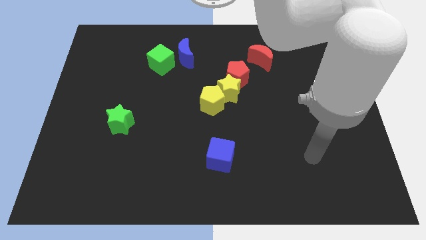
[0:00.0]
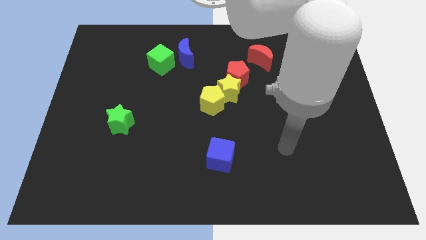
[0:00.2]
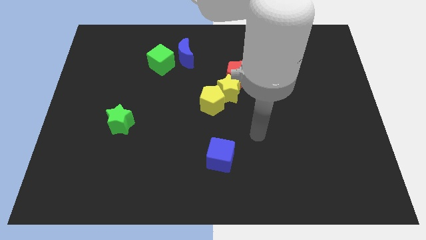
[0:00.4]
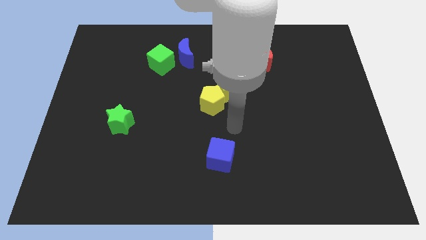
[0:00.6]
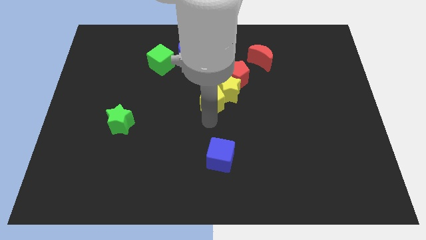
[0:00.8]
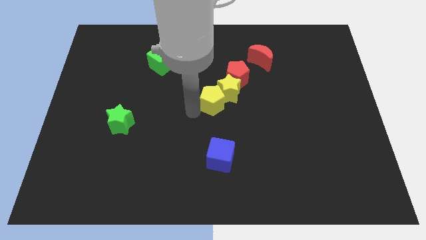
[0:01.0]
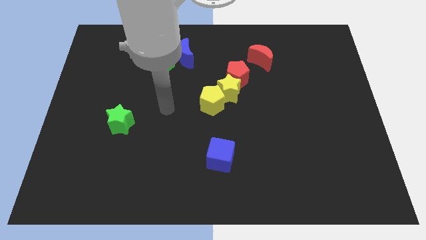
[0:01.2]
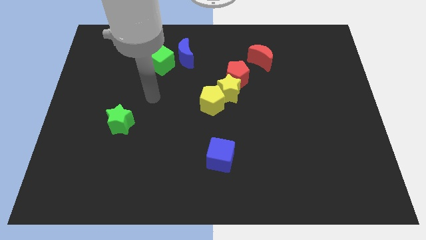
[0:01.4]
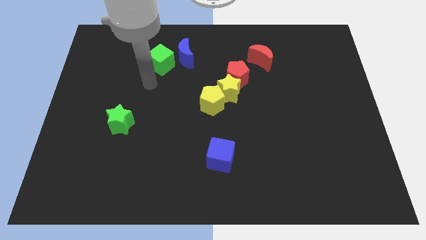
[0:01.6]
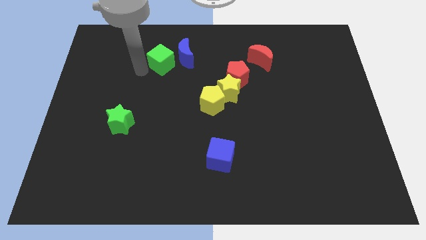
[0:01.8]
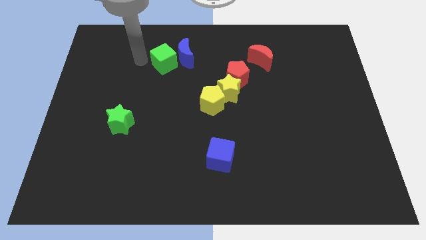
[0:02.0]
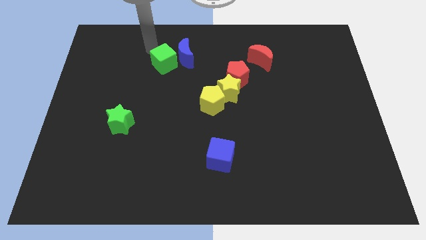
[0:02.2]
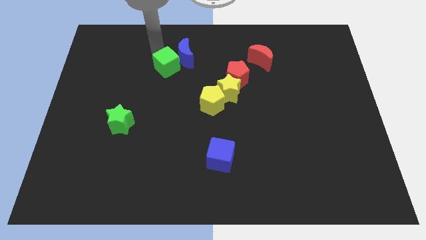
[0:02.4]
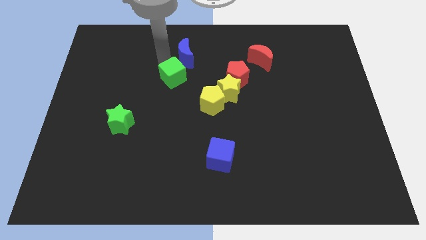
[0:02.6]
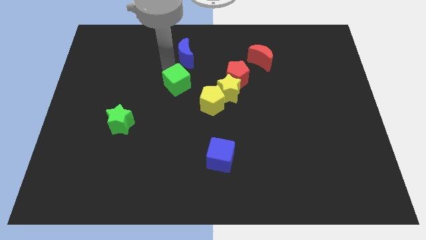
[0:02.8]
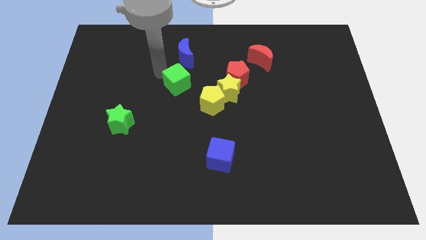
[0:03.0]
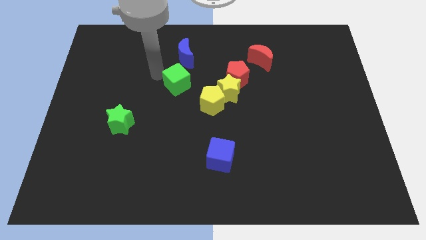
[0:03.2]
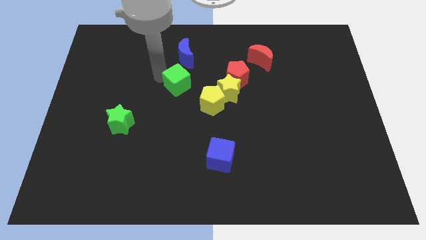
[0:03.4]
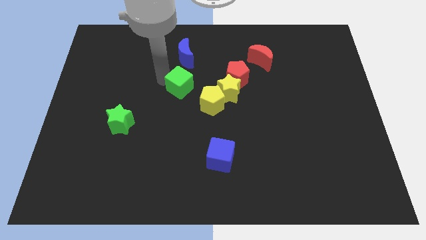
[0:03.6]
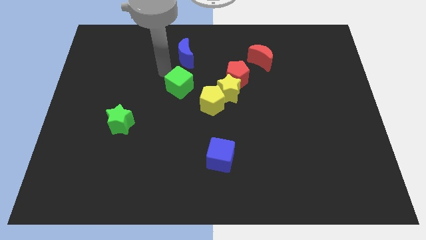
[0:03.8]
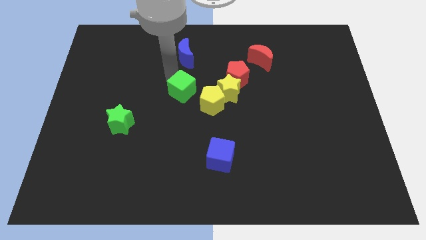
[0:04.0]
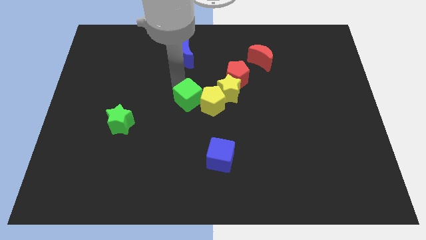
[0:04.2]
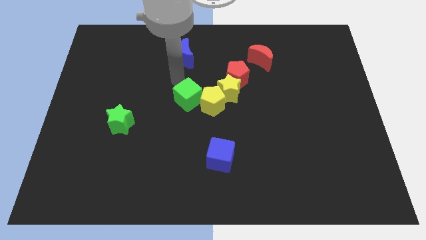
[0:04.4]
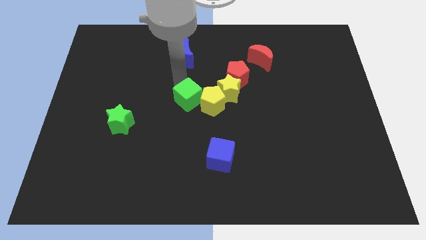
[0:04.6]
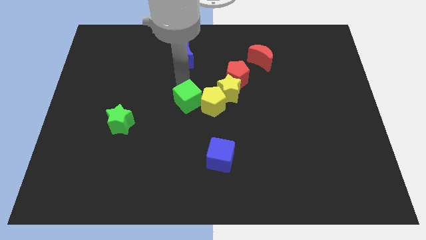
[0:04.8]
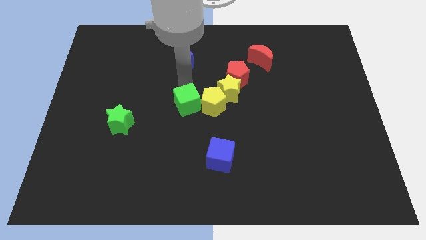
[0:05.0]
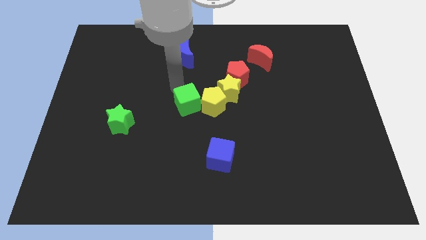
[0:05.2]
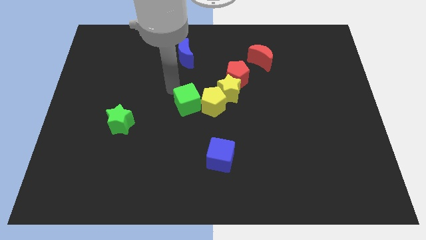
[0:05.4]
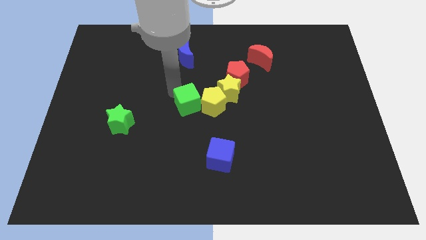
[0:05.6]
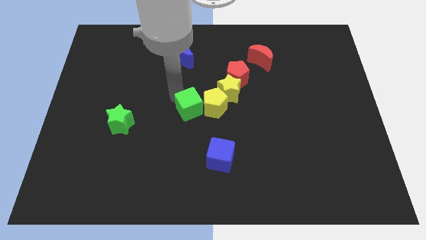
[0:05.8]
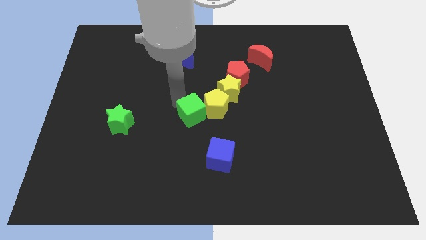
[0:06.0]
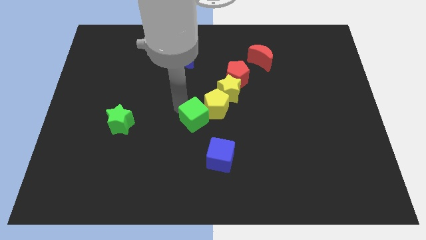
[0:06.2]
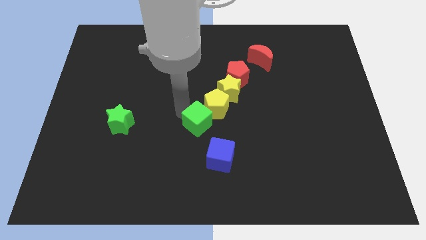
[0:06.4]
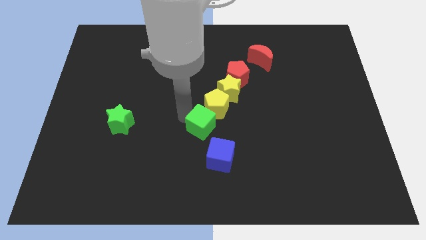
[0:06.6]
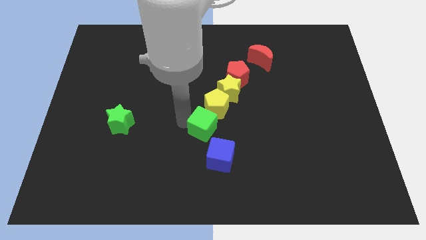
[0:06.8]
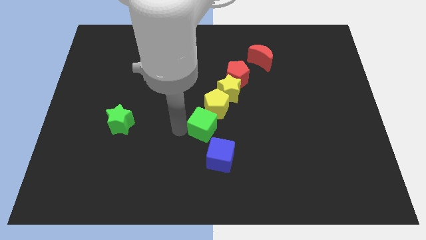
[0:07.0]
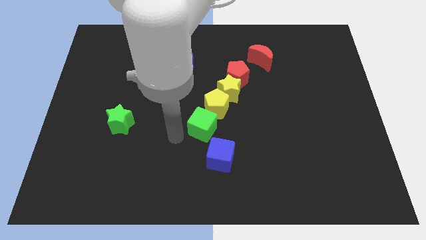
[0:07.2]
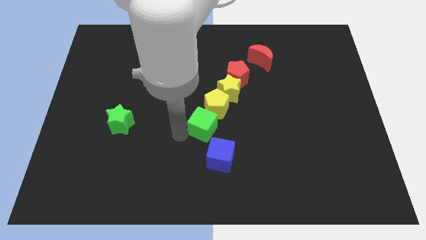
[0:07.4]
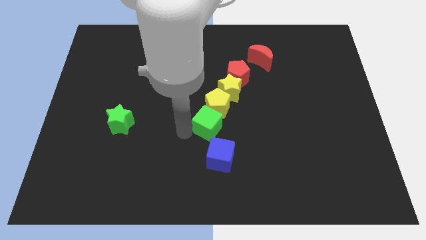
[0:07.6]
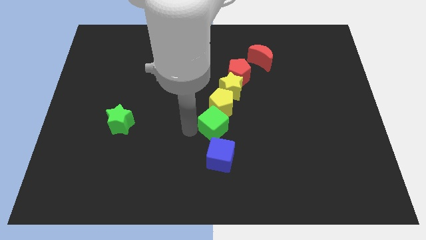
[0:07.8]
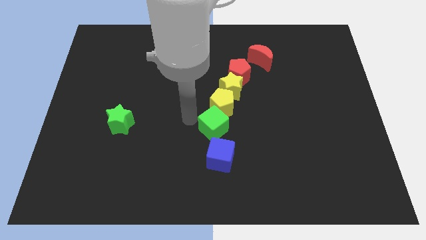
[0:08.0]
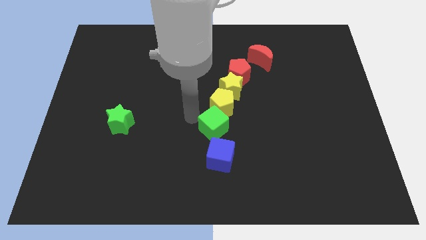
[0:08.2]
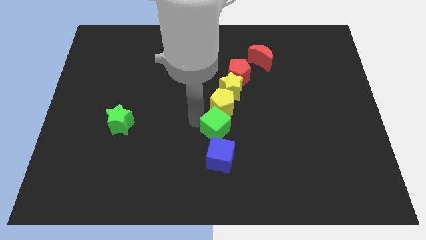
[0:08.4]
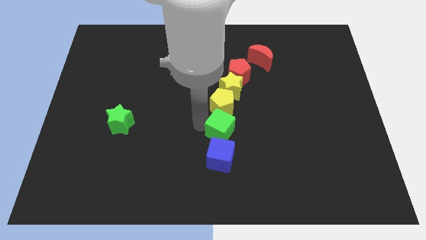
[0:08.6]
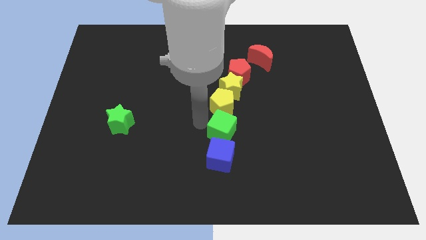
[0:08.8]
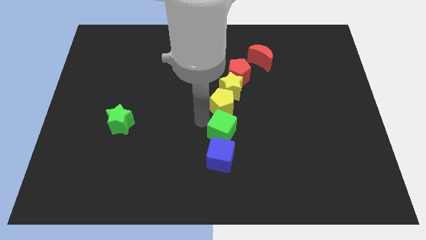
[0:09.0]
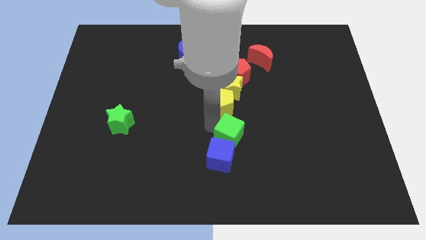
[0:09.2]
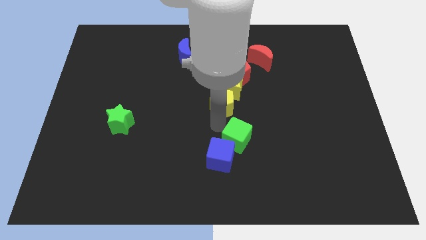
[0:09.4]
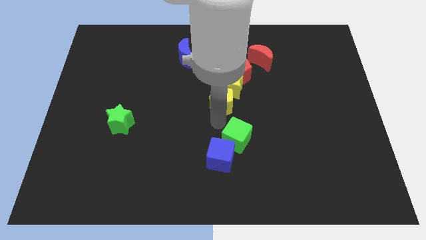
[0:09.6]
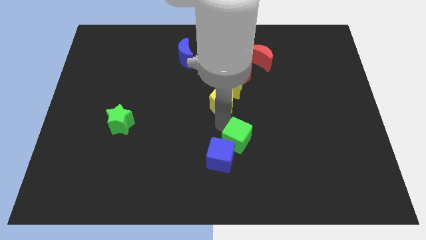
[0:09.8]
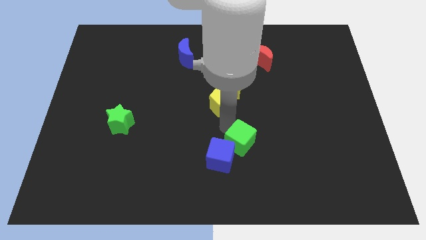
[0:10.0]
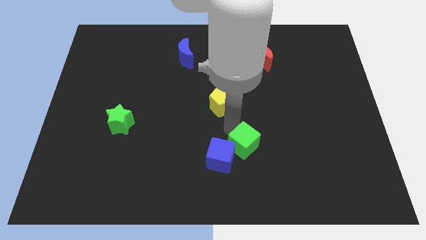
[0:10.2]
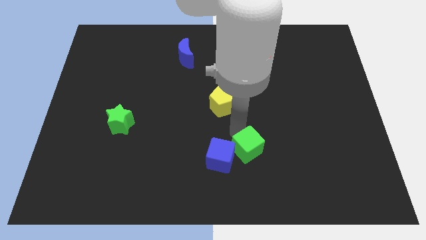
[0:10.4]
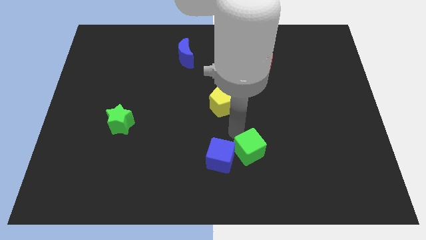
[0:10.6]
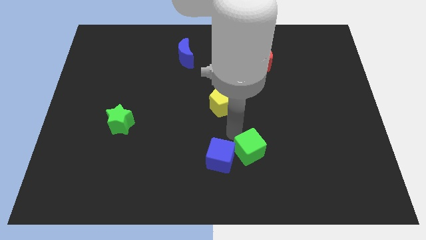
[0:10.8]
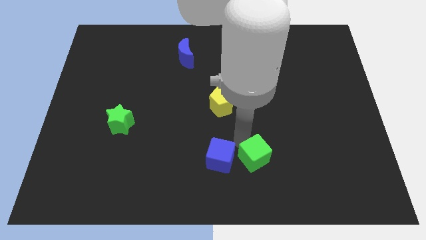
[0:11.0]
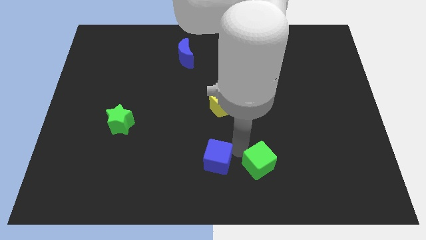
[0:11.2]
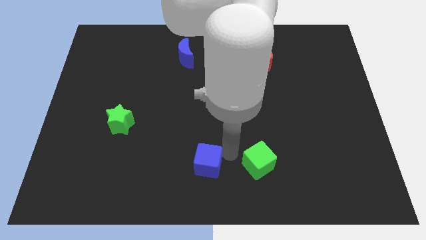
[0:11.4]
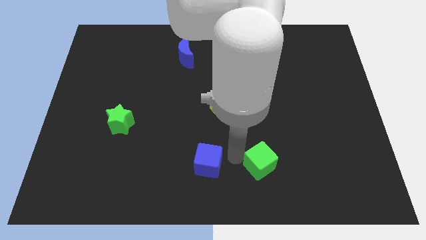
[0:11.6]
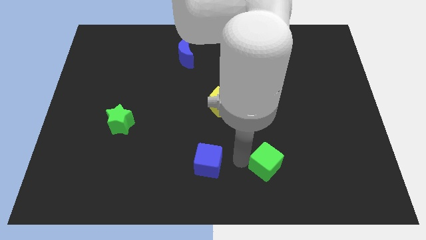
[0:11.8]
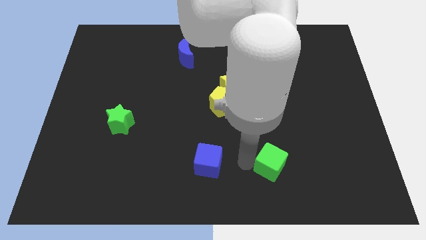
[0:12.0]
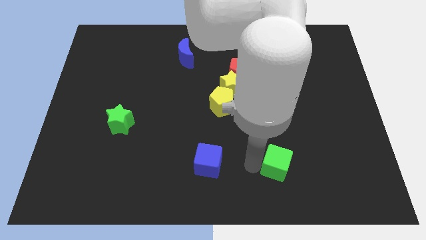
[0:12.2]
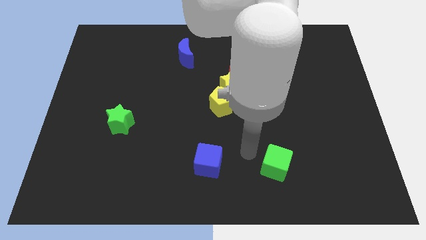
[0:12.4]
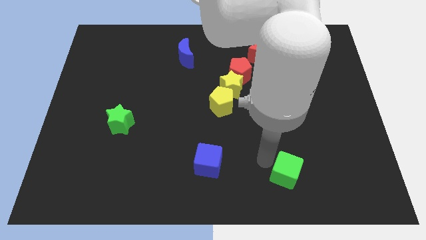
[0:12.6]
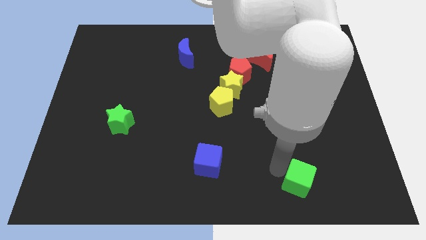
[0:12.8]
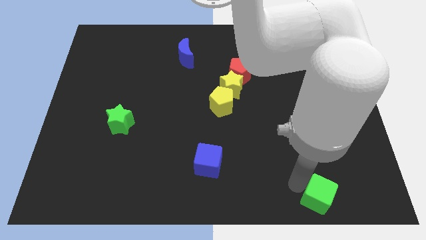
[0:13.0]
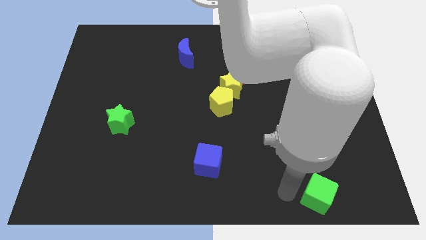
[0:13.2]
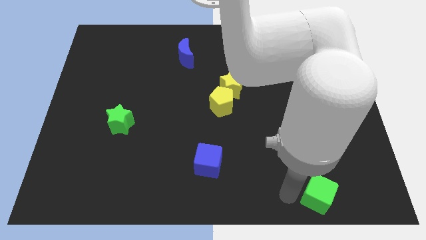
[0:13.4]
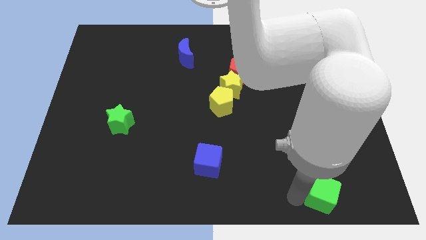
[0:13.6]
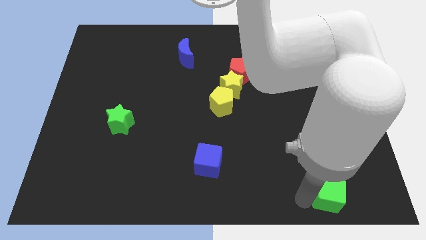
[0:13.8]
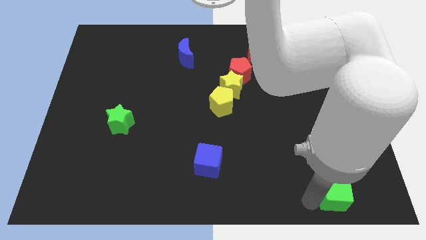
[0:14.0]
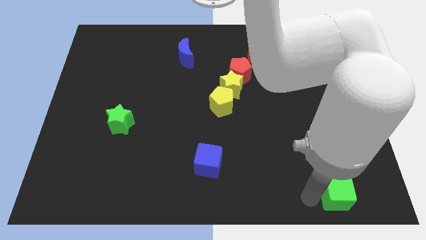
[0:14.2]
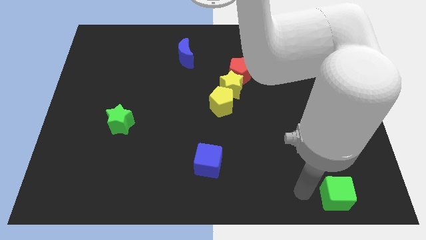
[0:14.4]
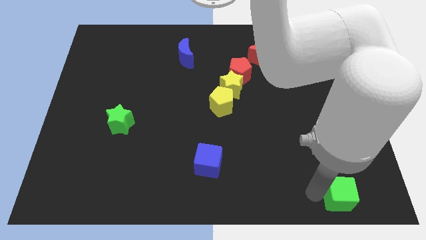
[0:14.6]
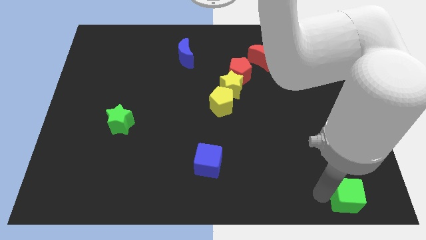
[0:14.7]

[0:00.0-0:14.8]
slide the green cube to the bottom right
